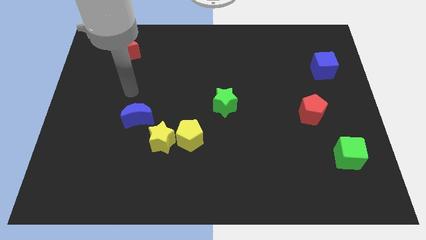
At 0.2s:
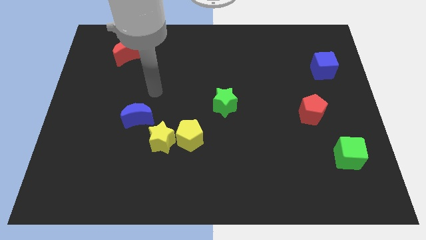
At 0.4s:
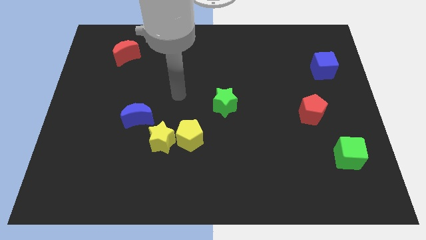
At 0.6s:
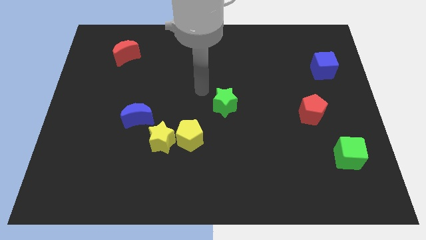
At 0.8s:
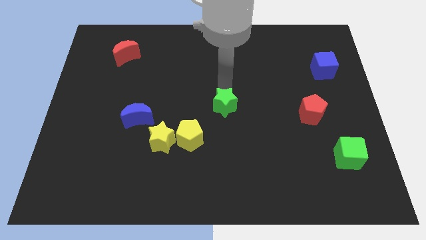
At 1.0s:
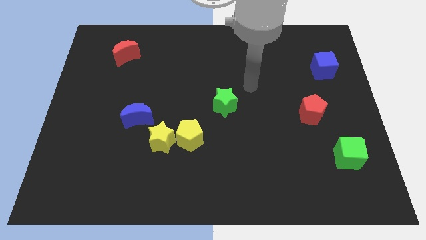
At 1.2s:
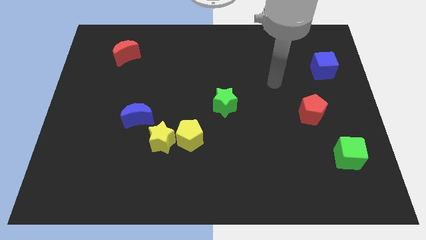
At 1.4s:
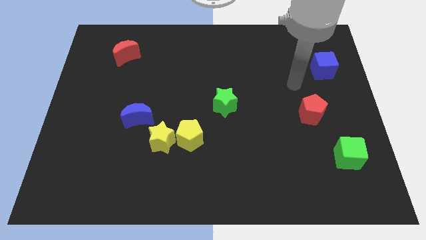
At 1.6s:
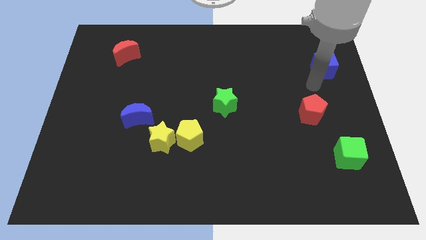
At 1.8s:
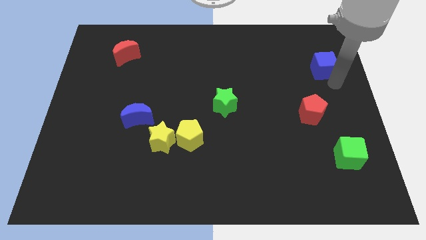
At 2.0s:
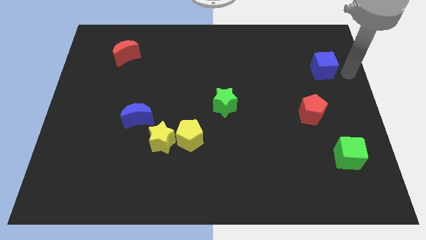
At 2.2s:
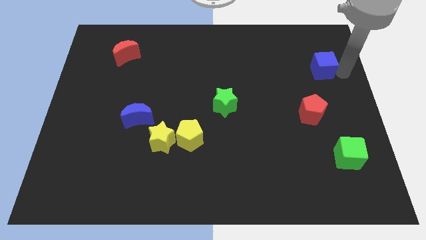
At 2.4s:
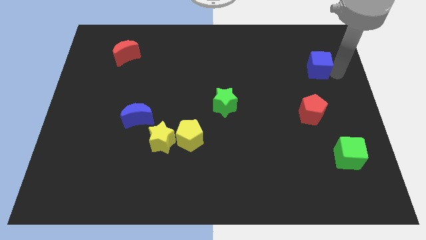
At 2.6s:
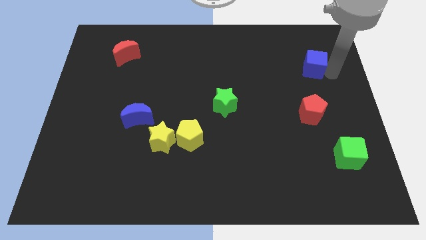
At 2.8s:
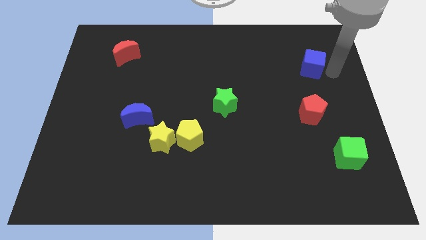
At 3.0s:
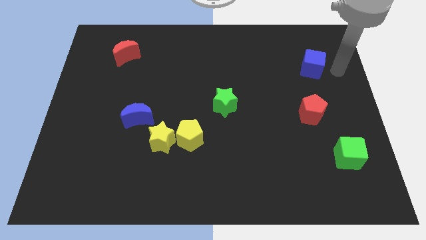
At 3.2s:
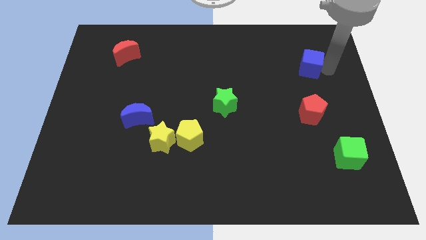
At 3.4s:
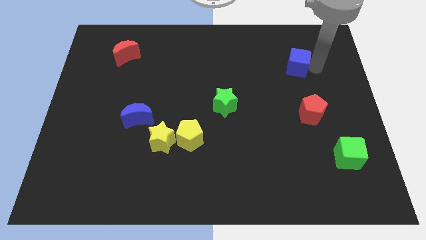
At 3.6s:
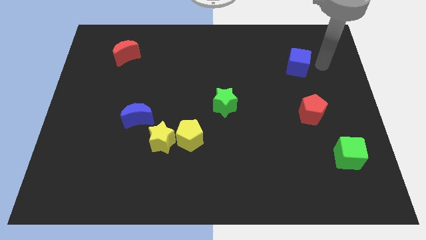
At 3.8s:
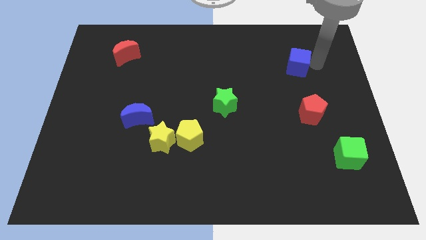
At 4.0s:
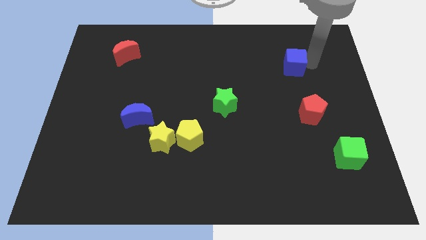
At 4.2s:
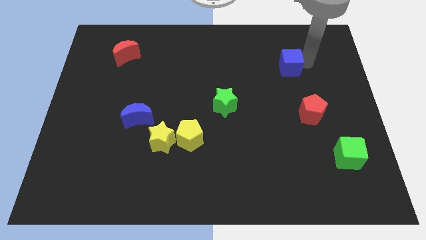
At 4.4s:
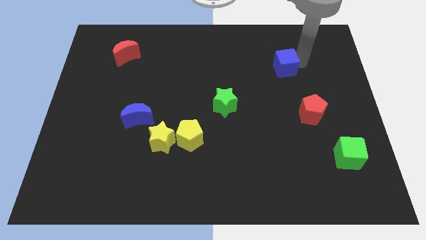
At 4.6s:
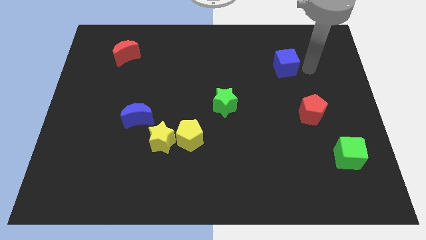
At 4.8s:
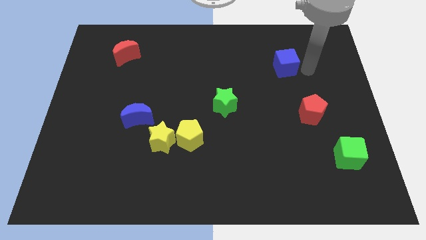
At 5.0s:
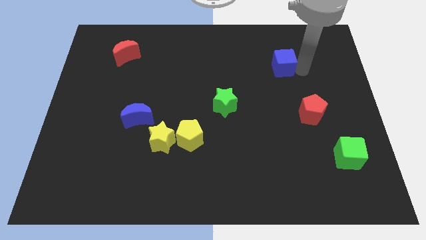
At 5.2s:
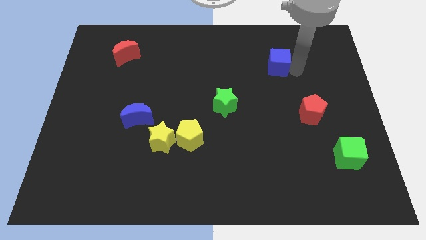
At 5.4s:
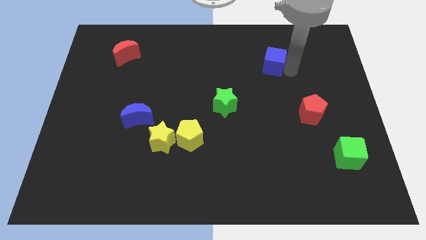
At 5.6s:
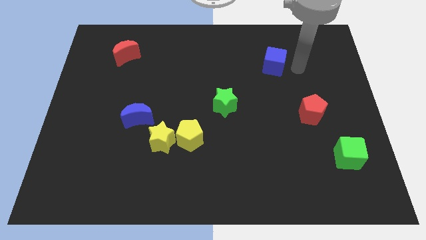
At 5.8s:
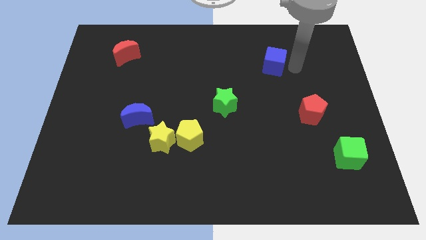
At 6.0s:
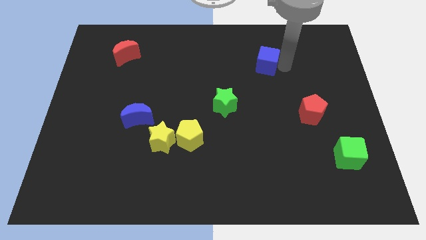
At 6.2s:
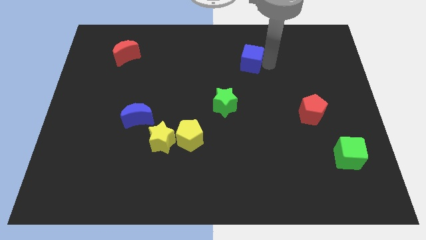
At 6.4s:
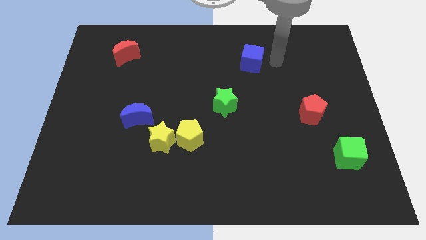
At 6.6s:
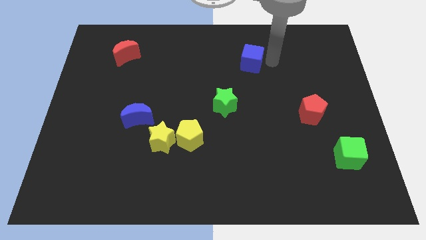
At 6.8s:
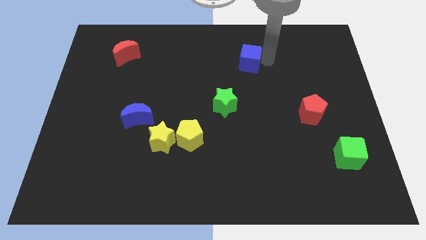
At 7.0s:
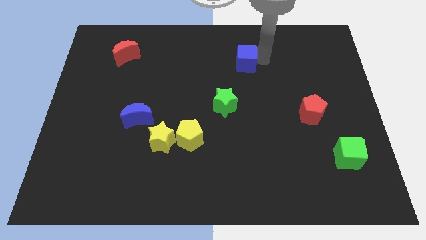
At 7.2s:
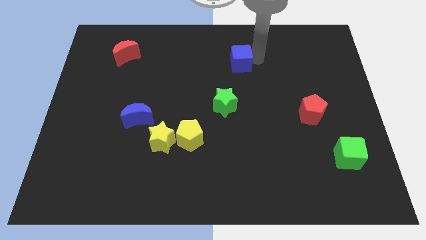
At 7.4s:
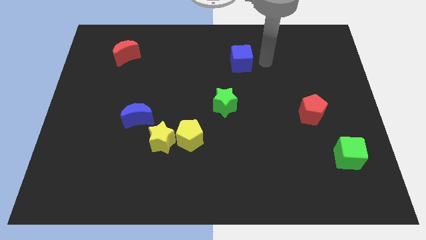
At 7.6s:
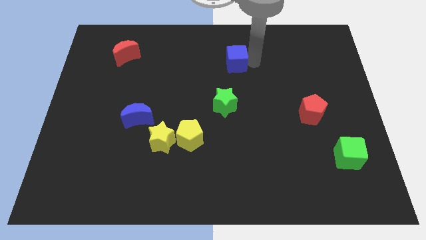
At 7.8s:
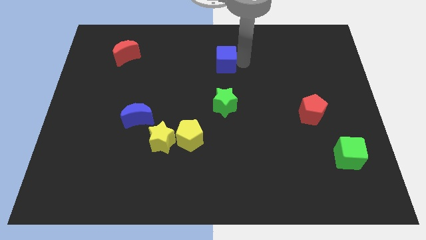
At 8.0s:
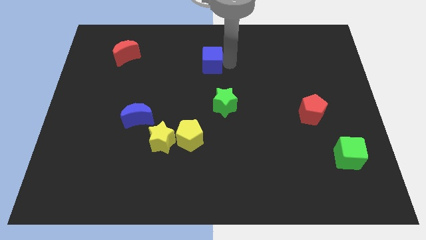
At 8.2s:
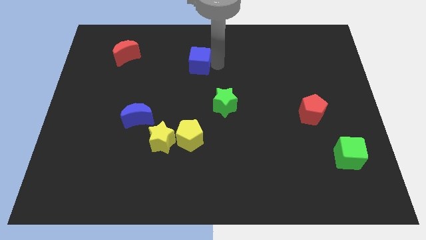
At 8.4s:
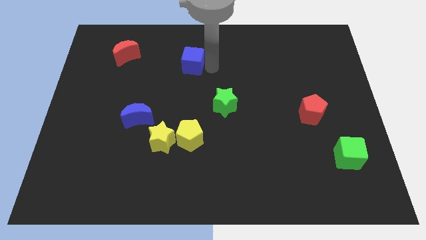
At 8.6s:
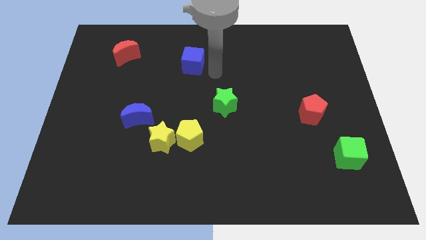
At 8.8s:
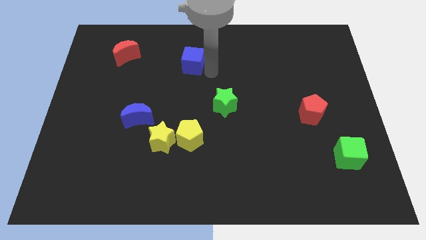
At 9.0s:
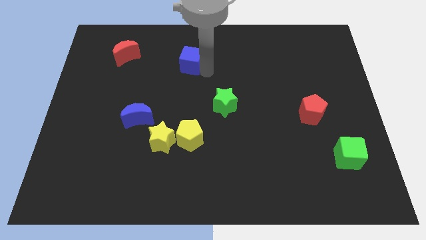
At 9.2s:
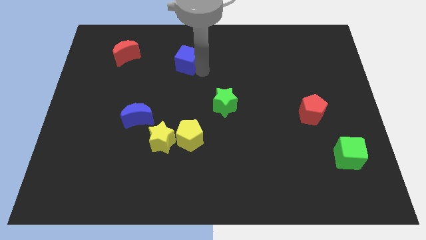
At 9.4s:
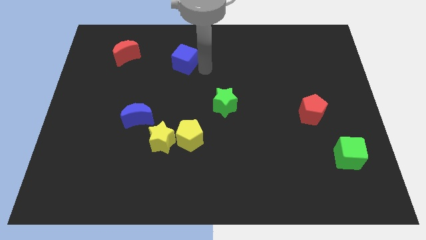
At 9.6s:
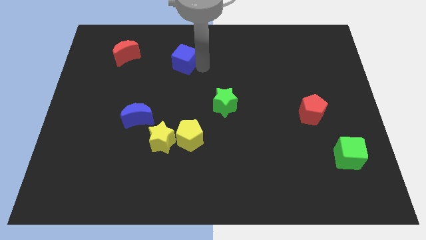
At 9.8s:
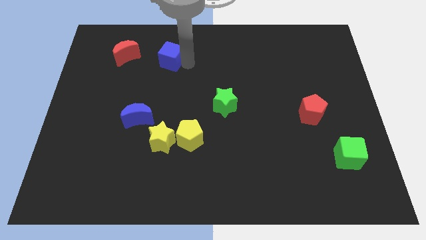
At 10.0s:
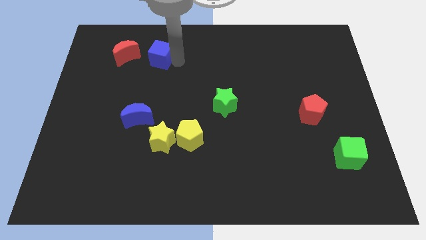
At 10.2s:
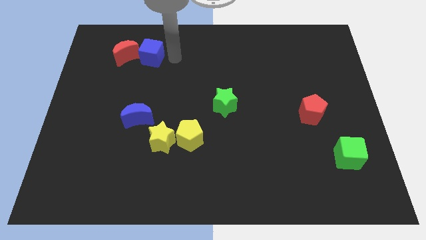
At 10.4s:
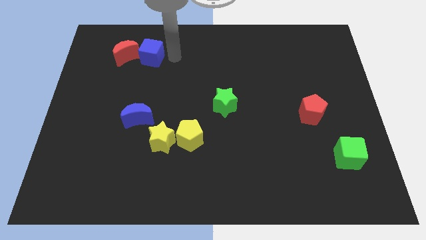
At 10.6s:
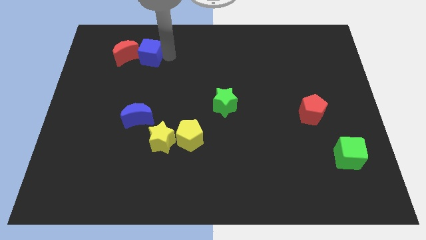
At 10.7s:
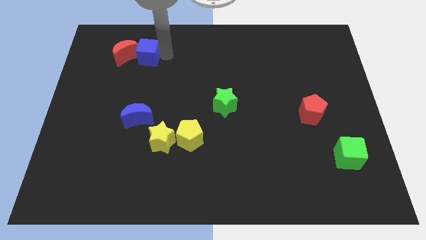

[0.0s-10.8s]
put the blue cube towards the red moon

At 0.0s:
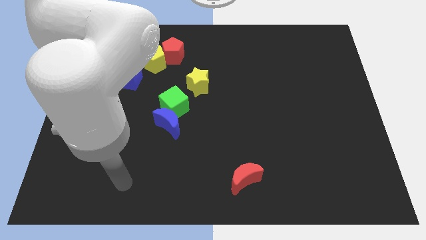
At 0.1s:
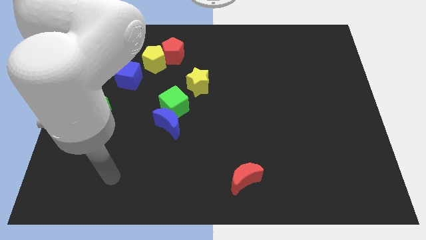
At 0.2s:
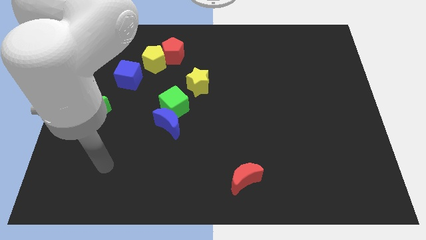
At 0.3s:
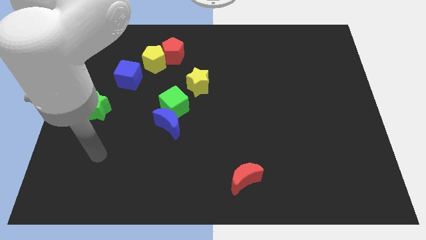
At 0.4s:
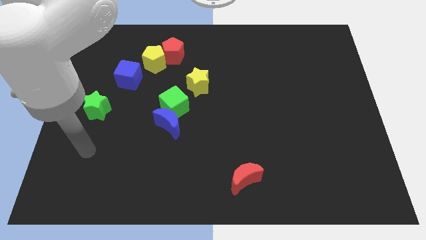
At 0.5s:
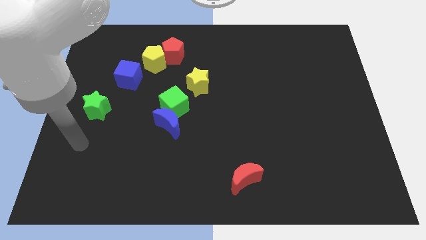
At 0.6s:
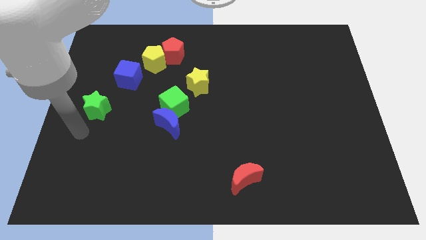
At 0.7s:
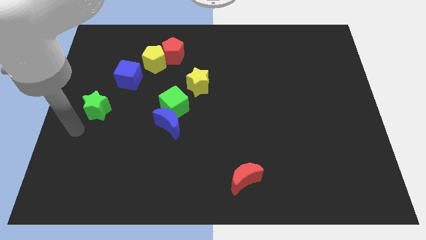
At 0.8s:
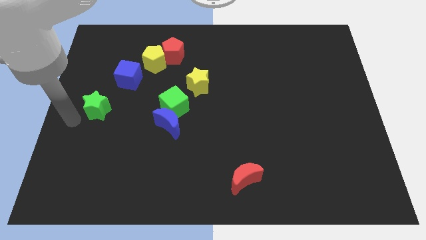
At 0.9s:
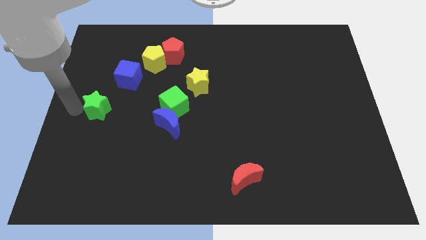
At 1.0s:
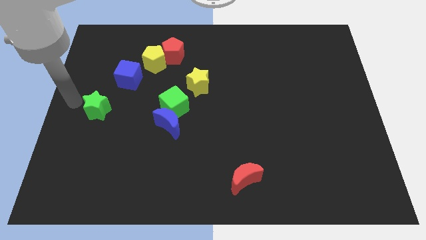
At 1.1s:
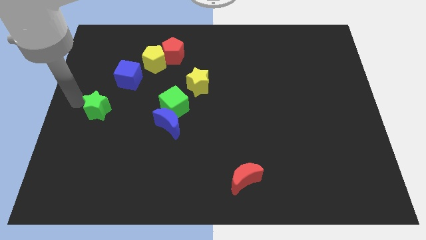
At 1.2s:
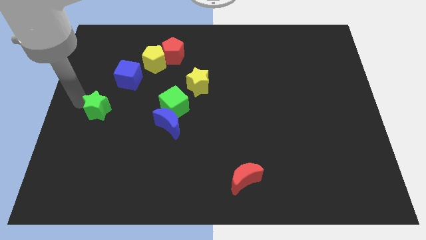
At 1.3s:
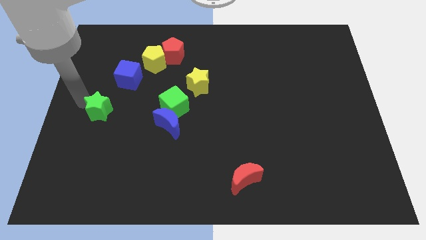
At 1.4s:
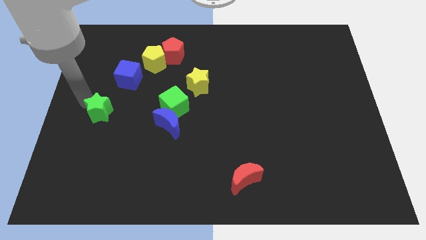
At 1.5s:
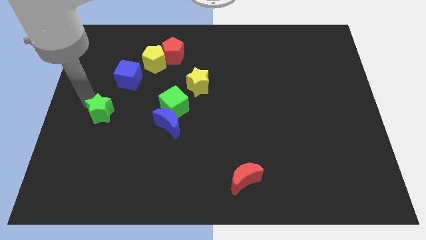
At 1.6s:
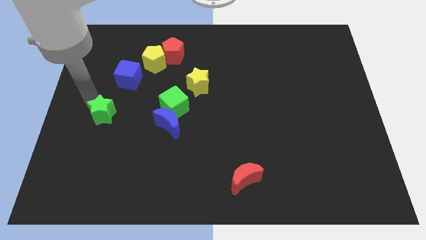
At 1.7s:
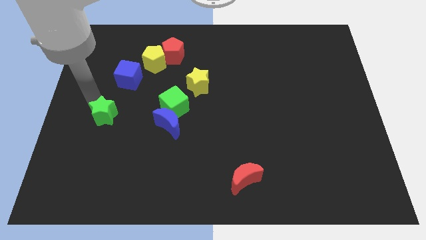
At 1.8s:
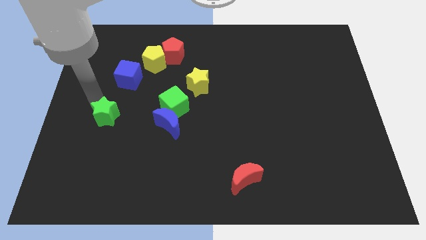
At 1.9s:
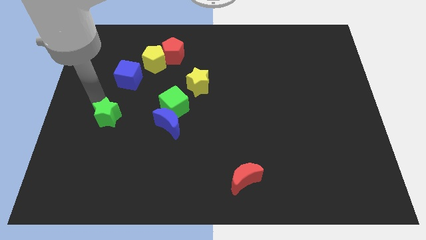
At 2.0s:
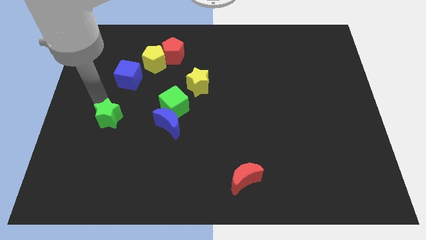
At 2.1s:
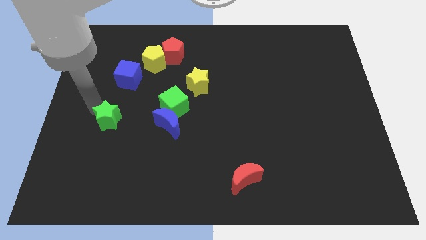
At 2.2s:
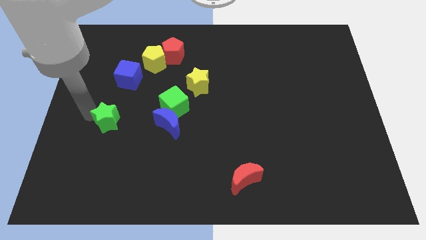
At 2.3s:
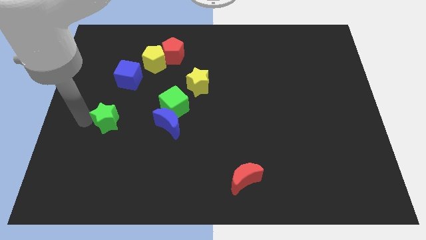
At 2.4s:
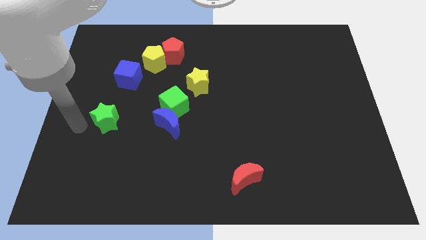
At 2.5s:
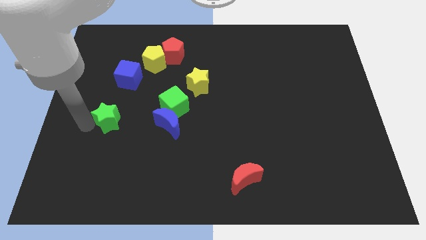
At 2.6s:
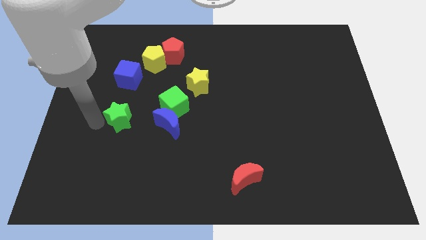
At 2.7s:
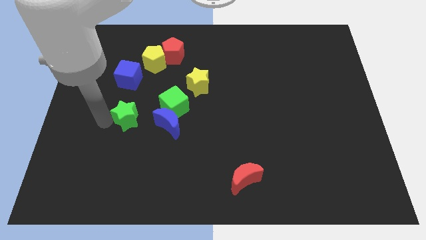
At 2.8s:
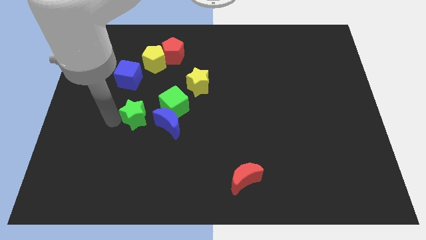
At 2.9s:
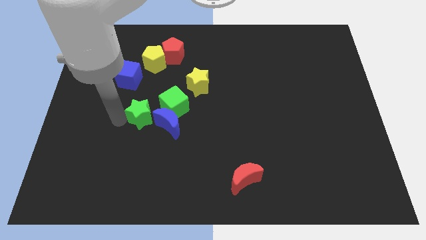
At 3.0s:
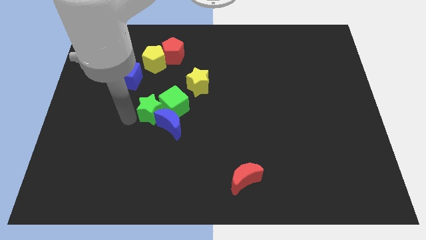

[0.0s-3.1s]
move the green star towards the green cube
